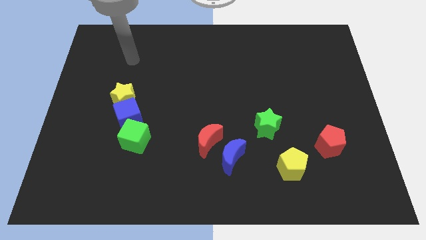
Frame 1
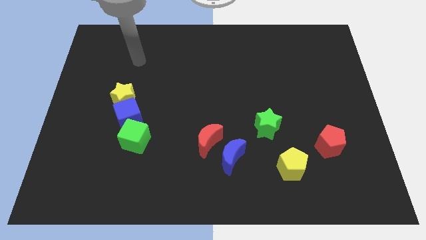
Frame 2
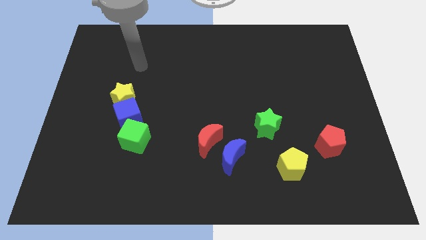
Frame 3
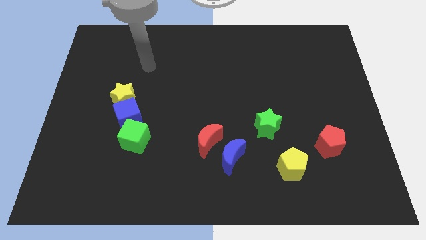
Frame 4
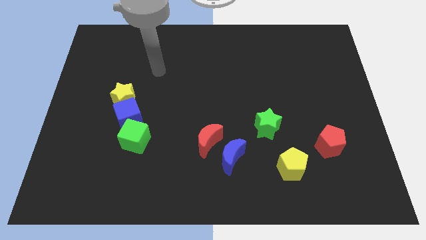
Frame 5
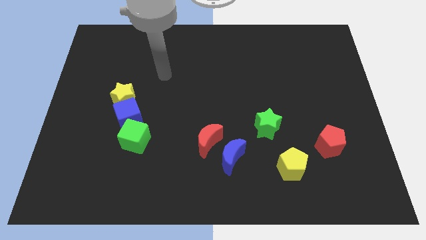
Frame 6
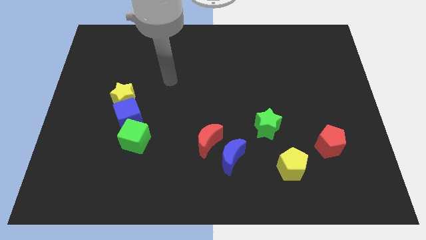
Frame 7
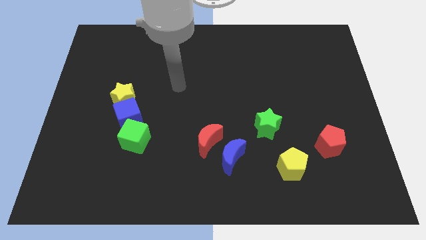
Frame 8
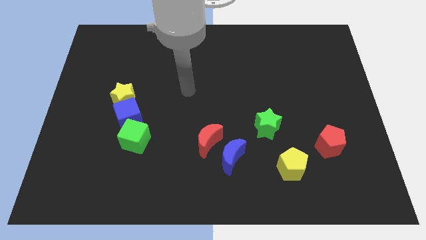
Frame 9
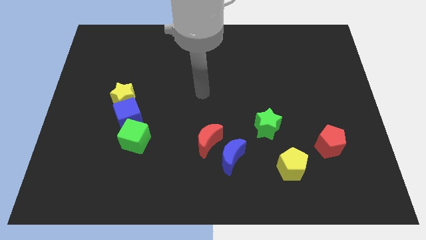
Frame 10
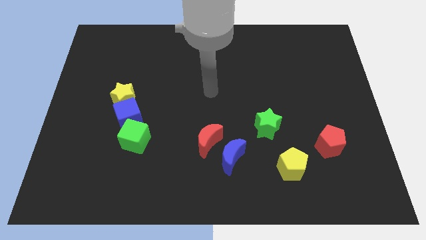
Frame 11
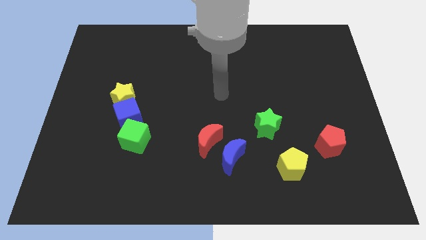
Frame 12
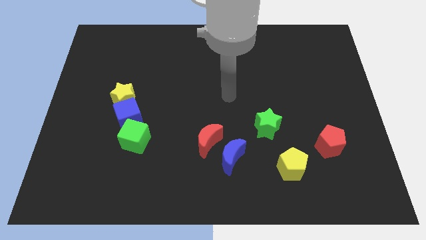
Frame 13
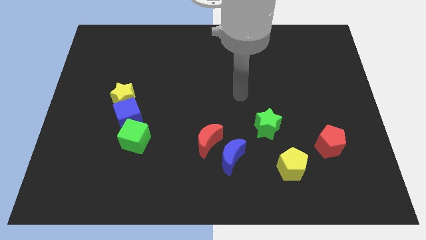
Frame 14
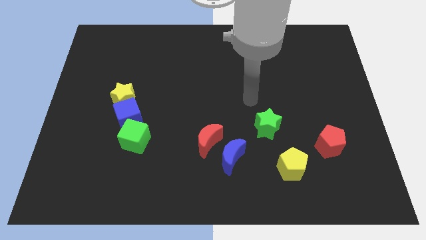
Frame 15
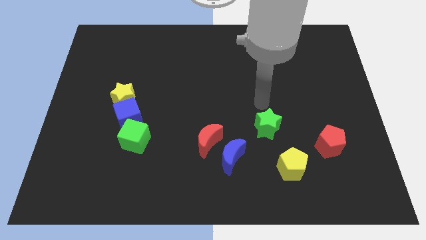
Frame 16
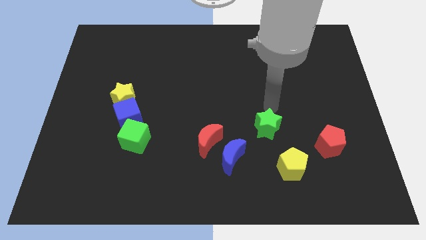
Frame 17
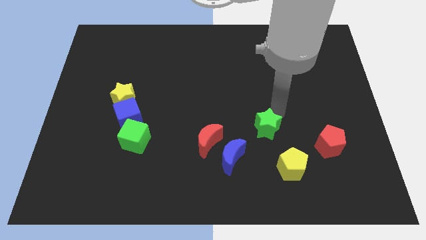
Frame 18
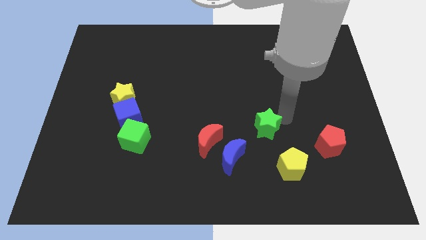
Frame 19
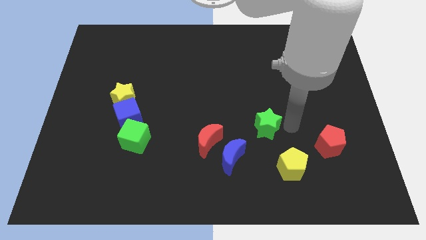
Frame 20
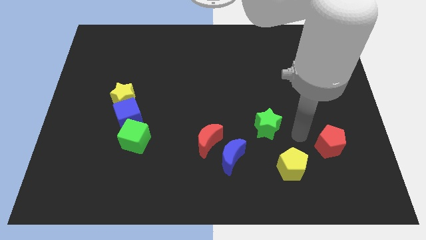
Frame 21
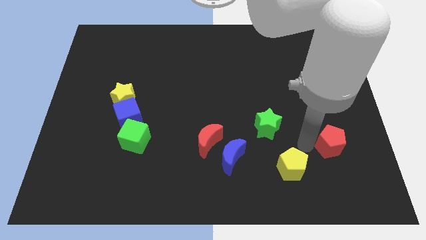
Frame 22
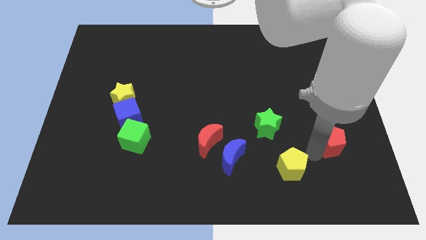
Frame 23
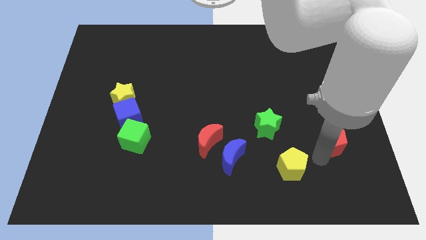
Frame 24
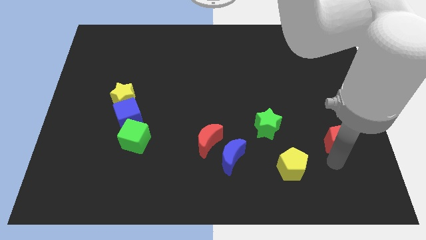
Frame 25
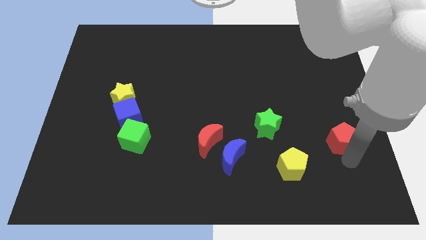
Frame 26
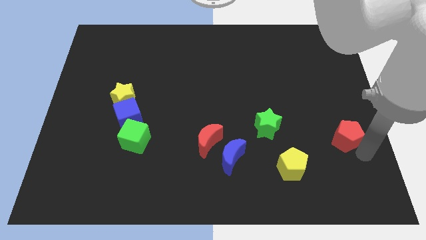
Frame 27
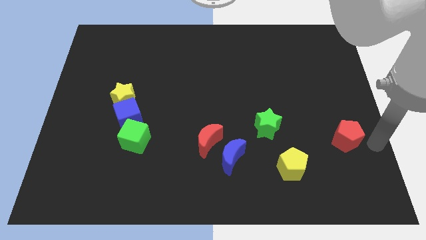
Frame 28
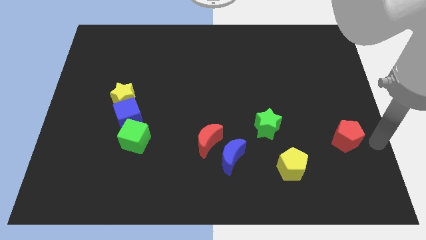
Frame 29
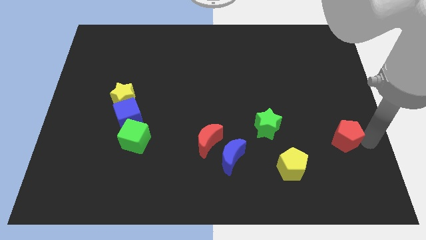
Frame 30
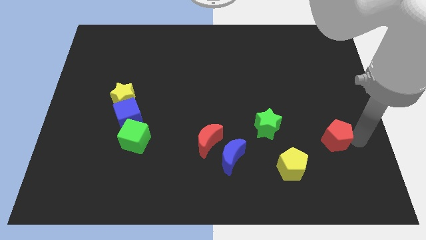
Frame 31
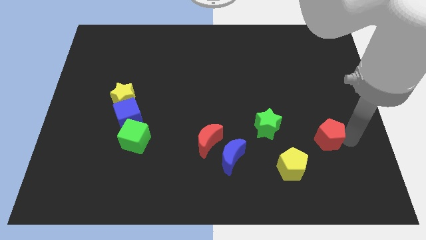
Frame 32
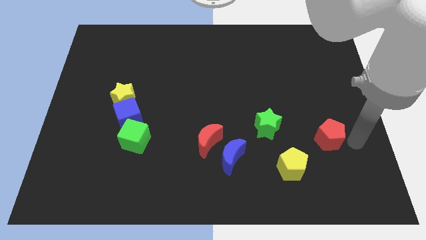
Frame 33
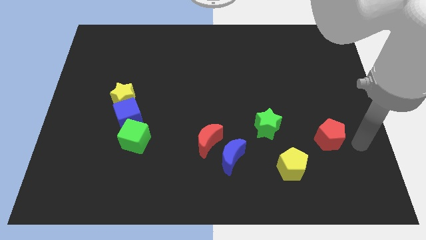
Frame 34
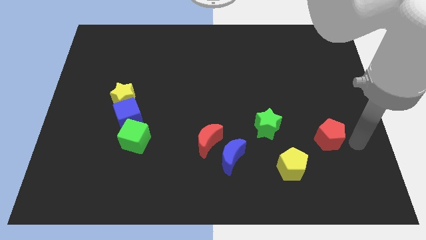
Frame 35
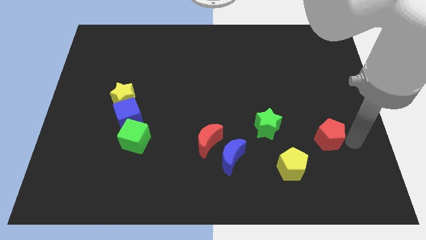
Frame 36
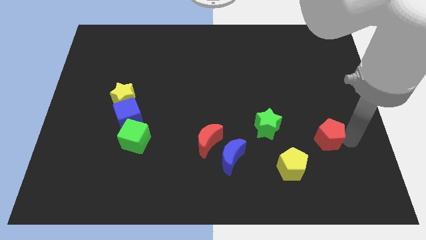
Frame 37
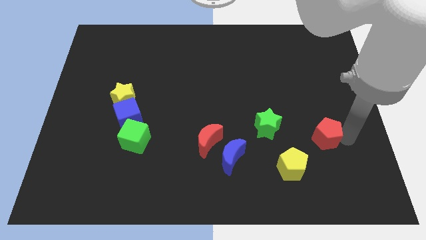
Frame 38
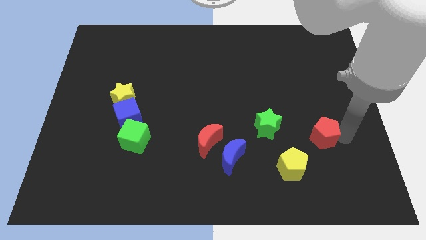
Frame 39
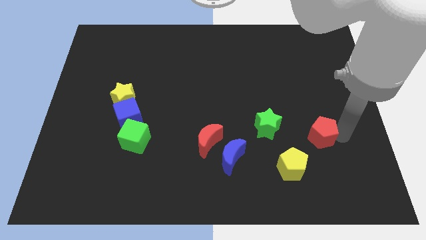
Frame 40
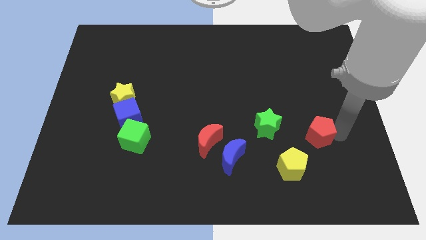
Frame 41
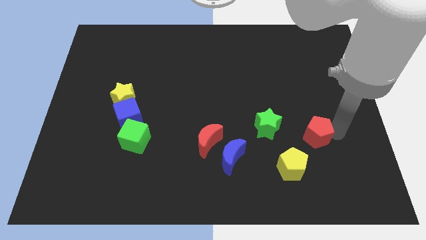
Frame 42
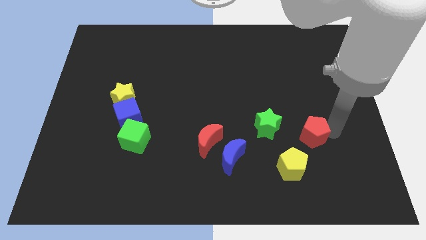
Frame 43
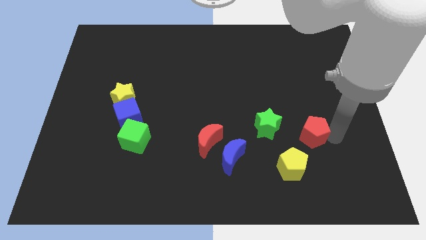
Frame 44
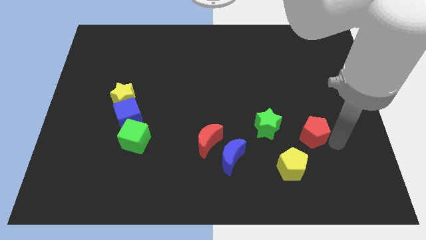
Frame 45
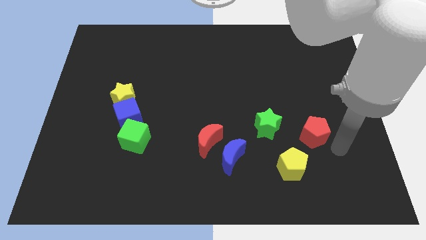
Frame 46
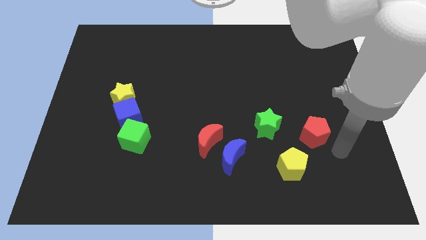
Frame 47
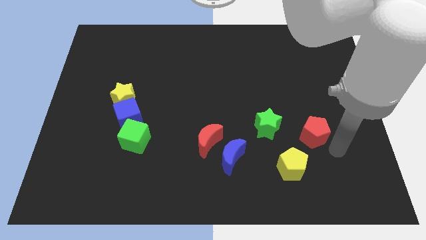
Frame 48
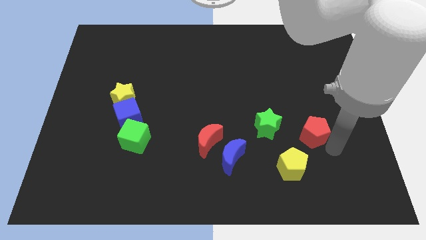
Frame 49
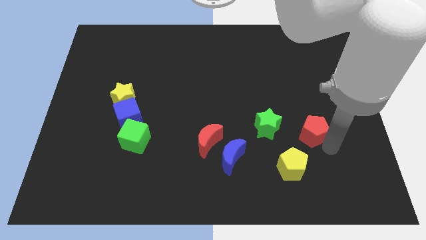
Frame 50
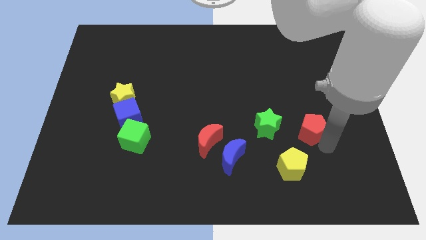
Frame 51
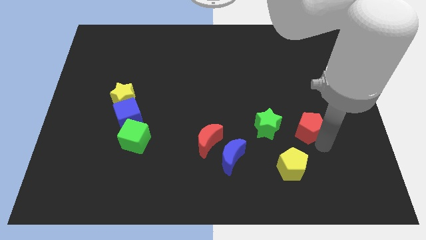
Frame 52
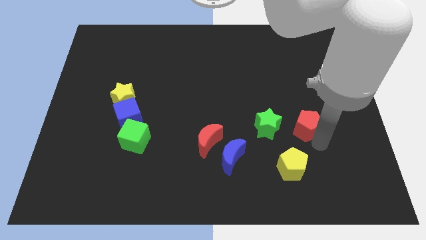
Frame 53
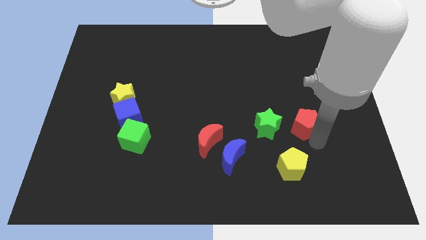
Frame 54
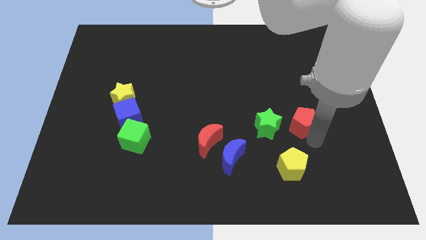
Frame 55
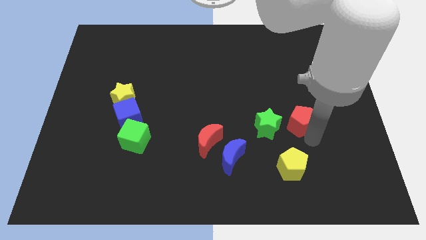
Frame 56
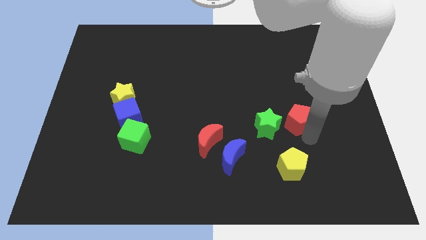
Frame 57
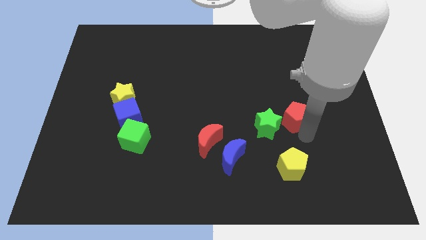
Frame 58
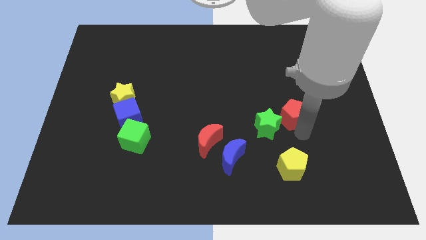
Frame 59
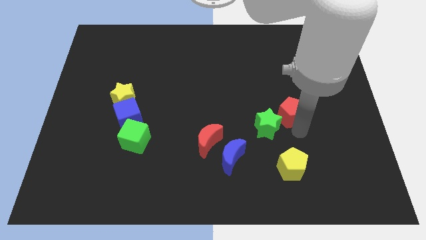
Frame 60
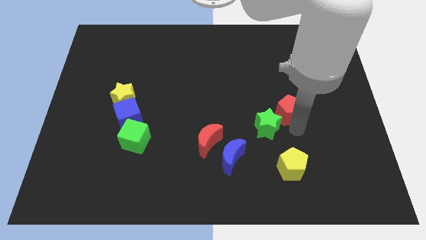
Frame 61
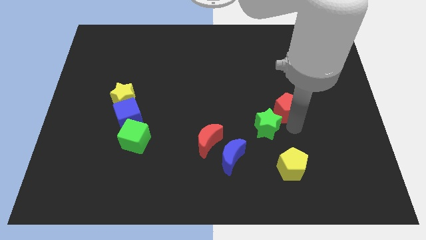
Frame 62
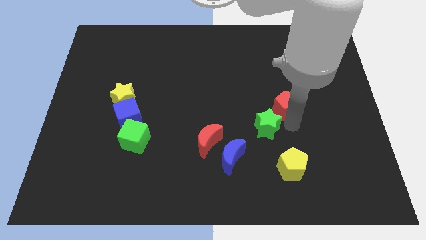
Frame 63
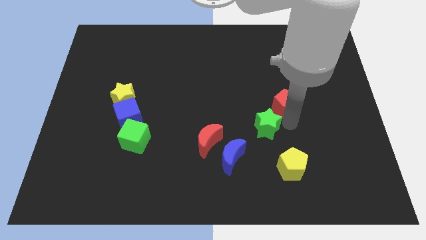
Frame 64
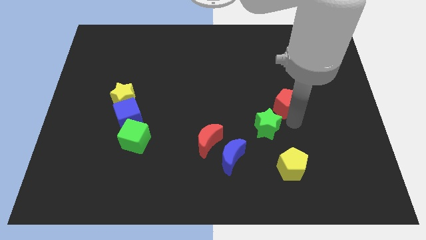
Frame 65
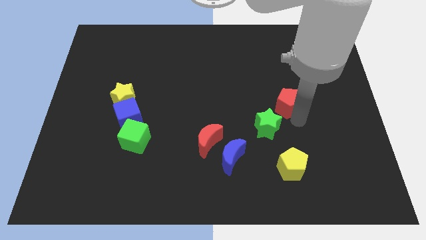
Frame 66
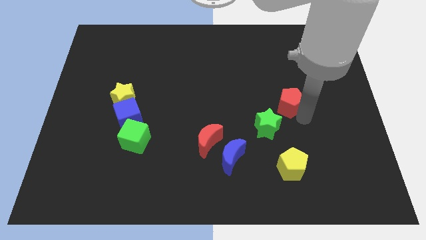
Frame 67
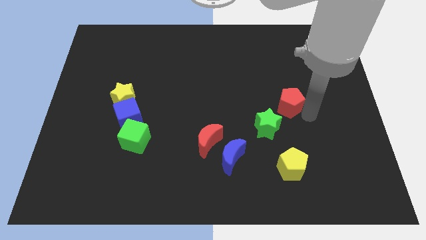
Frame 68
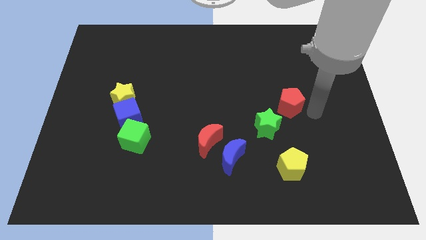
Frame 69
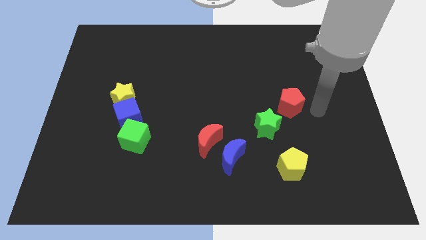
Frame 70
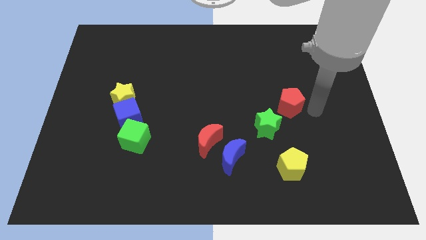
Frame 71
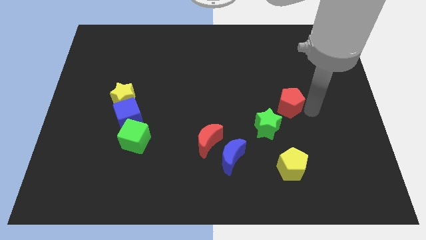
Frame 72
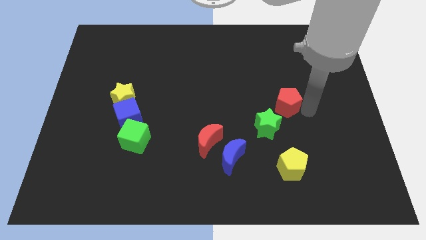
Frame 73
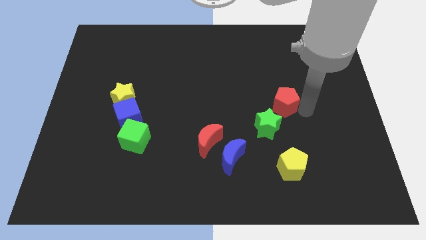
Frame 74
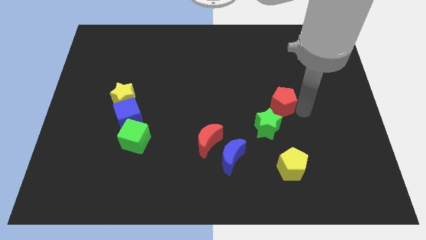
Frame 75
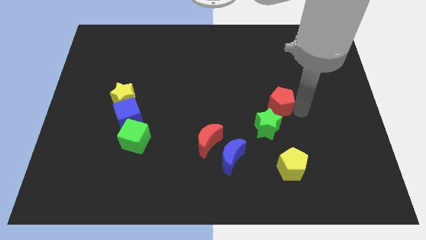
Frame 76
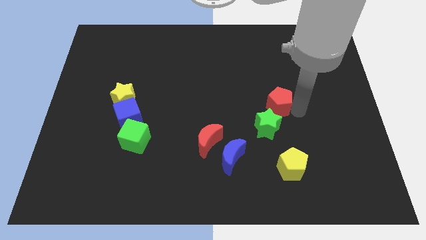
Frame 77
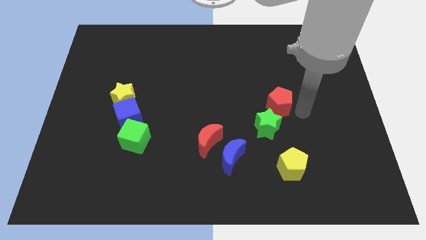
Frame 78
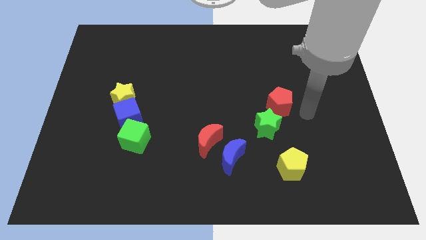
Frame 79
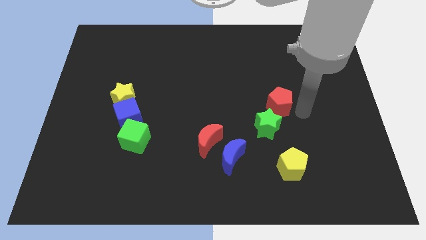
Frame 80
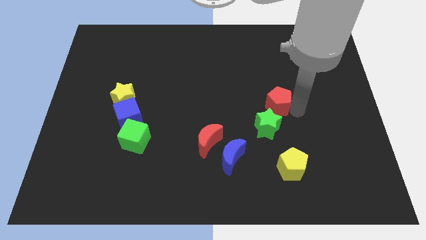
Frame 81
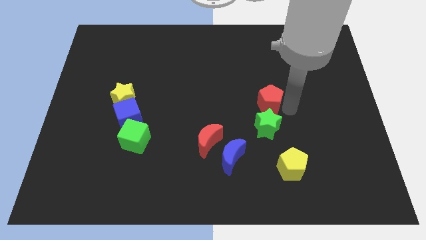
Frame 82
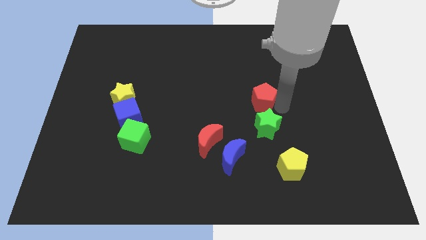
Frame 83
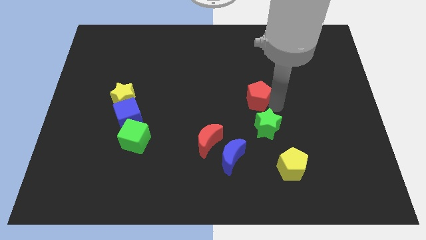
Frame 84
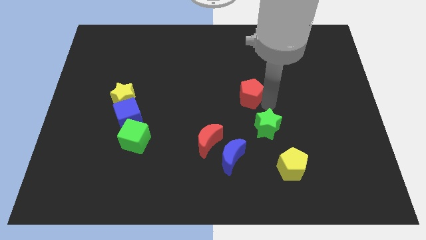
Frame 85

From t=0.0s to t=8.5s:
move the red pentagon diagonally upwards and left
